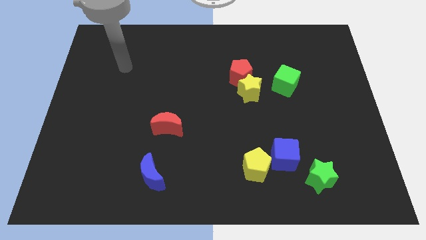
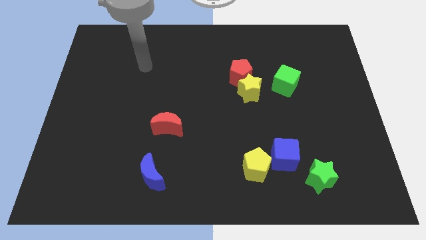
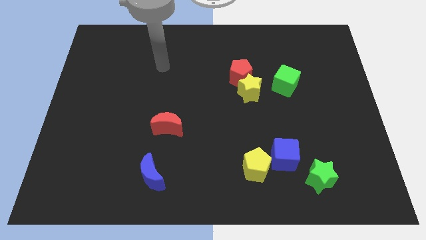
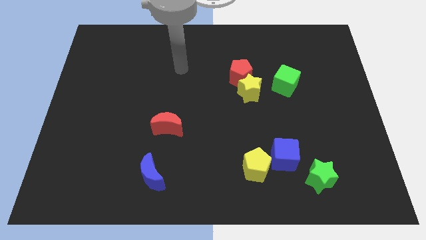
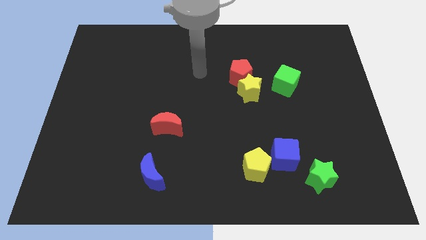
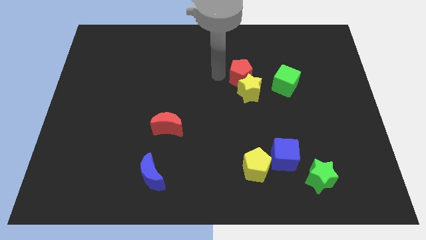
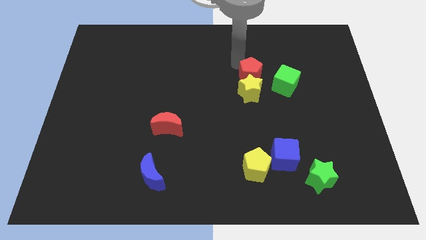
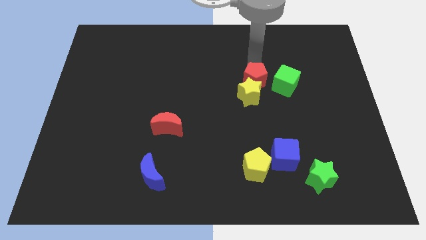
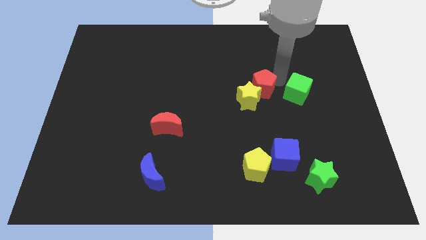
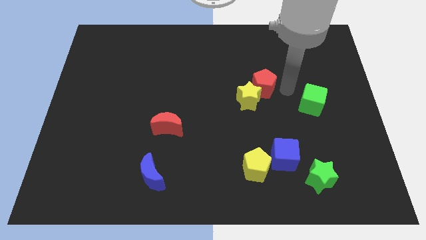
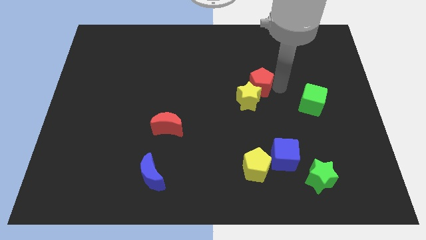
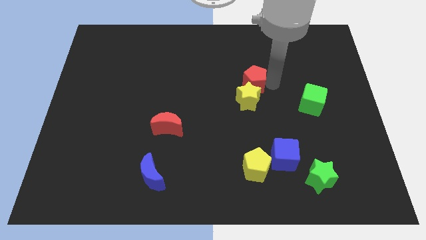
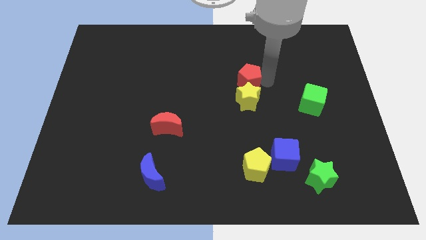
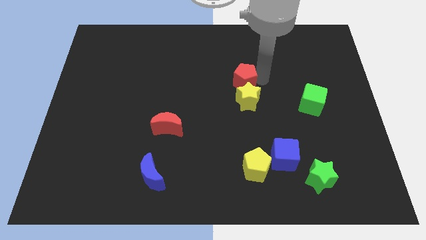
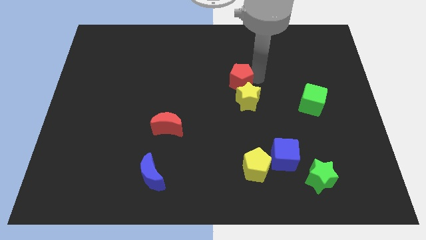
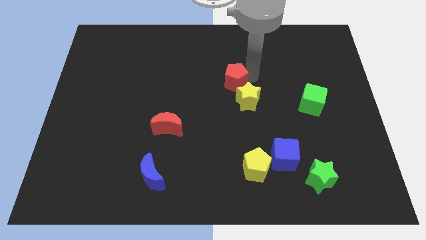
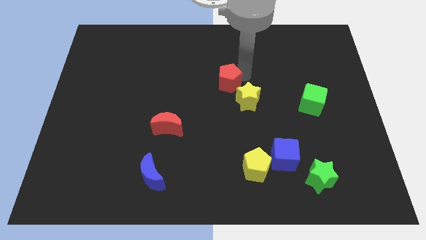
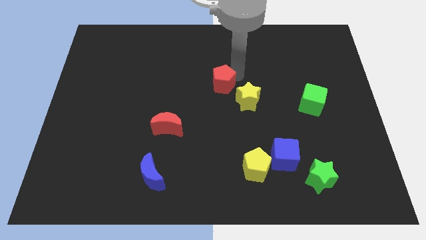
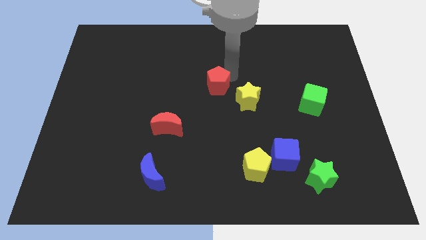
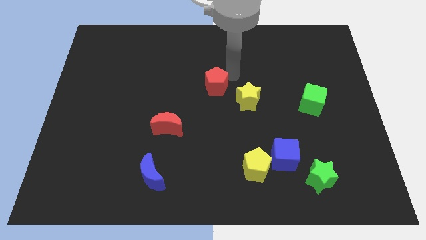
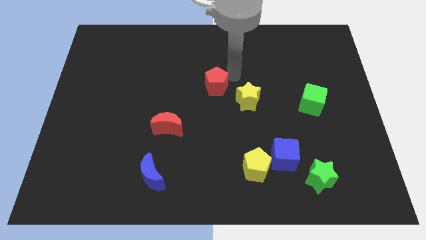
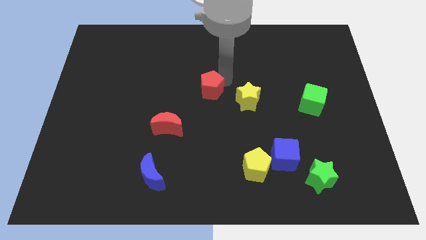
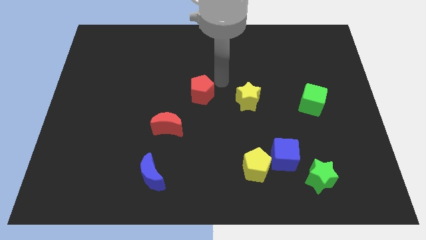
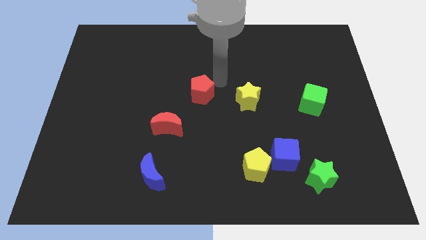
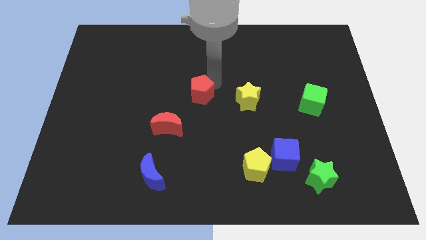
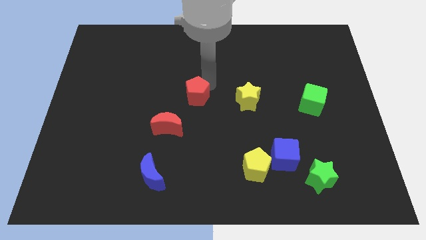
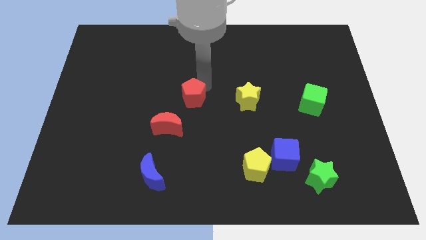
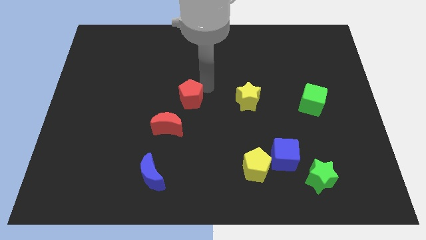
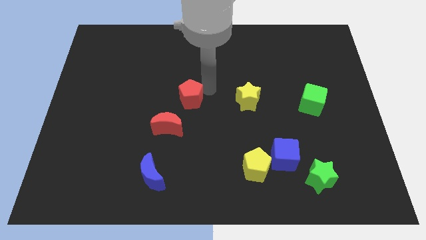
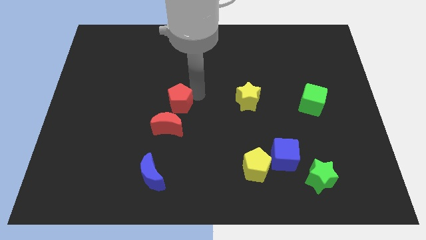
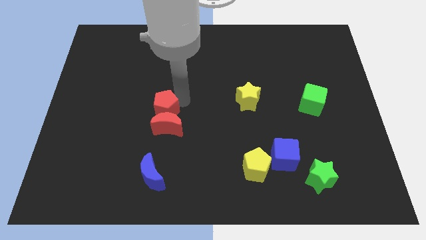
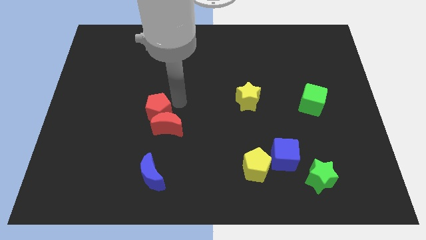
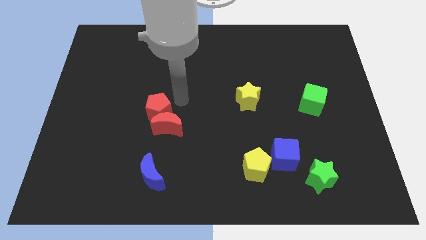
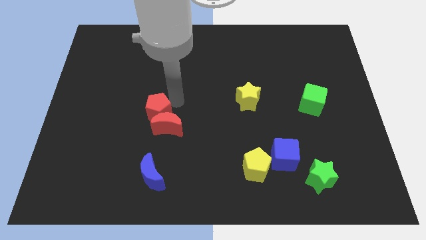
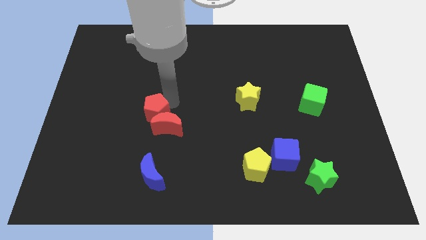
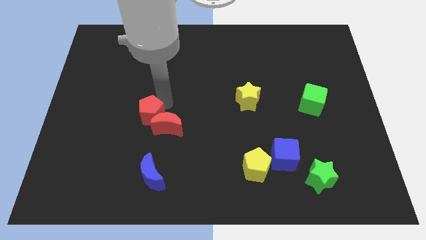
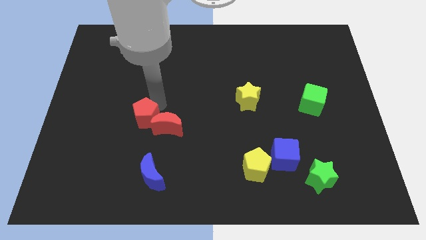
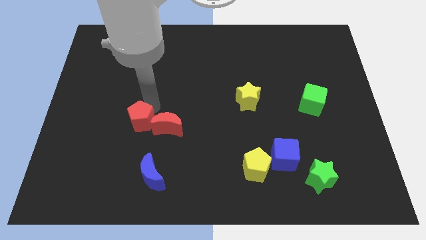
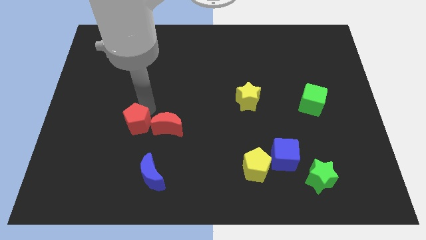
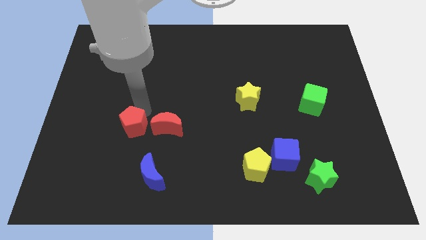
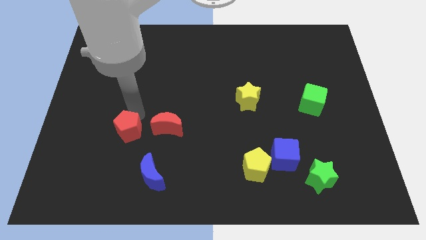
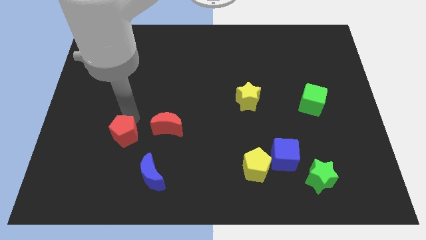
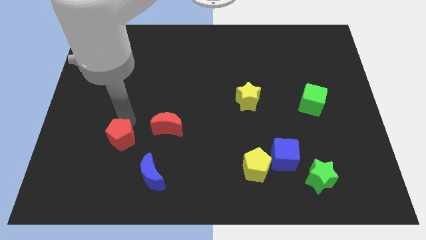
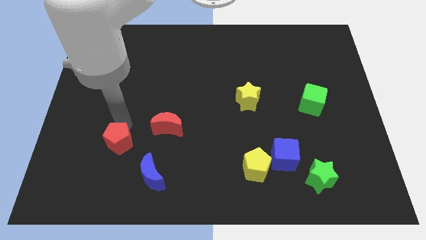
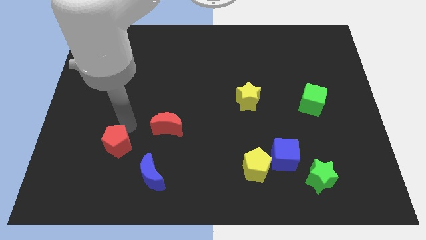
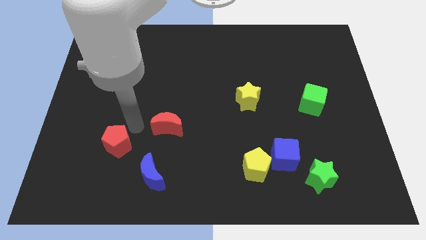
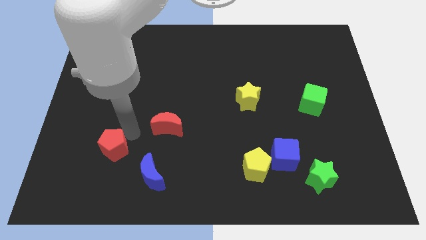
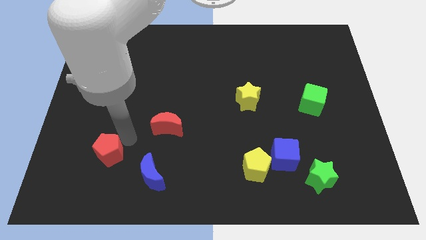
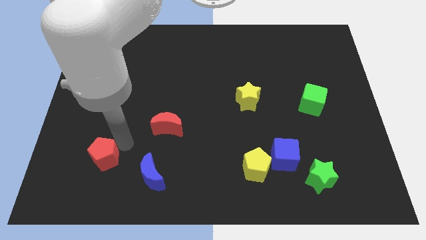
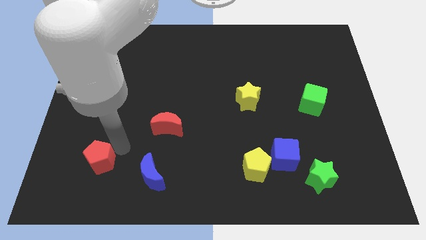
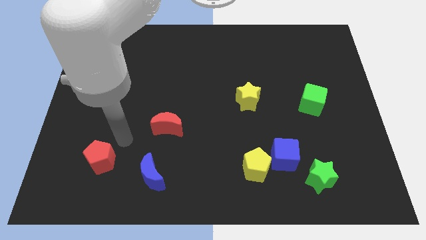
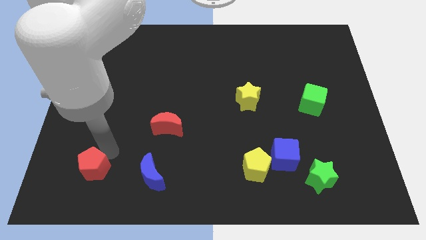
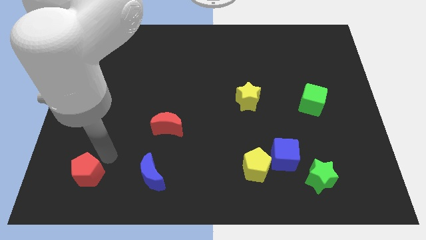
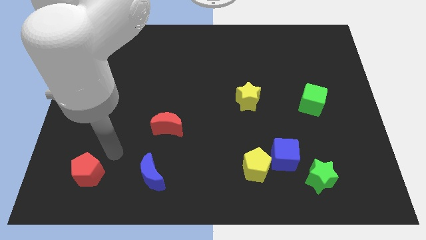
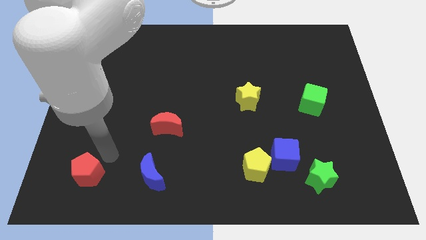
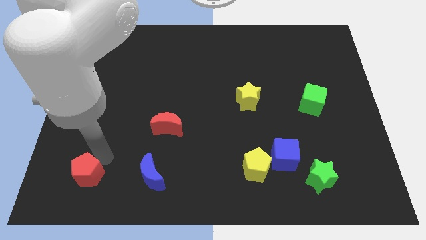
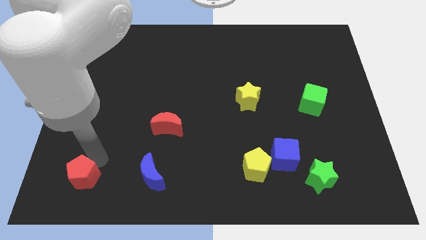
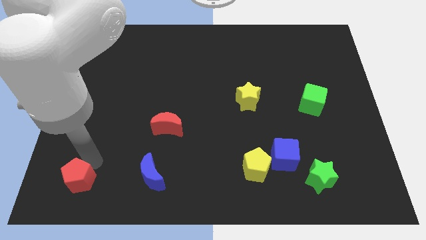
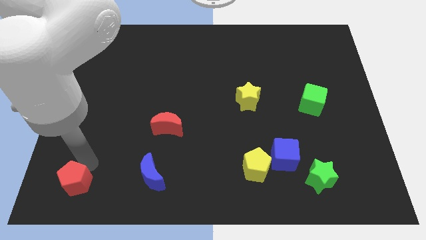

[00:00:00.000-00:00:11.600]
put the red pentagon to the lower left corner
